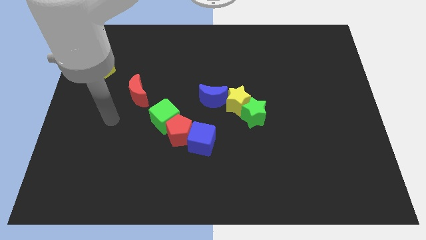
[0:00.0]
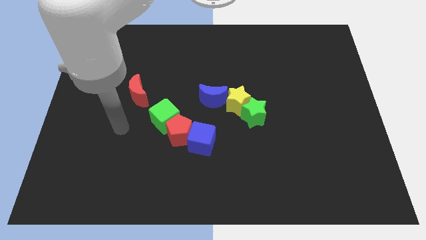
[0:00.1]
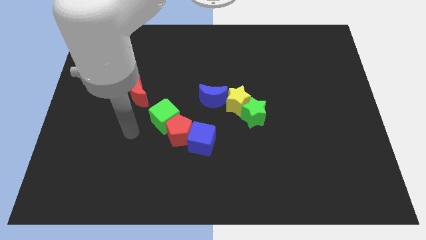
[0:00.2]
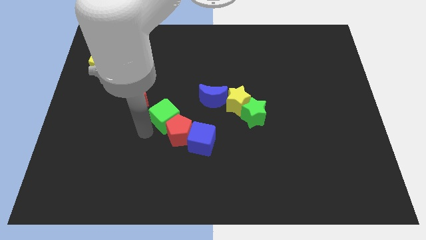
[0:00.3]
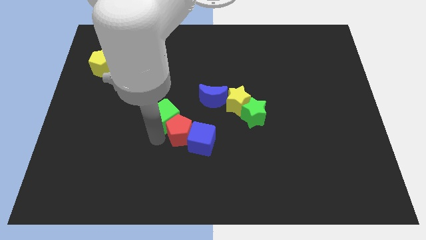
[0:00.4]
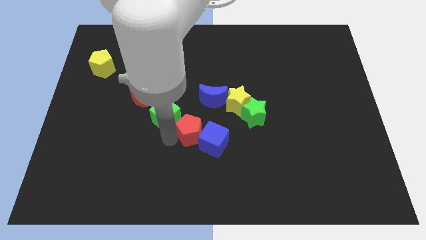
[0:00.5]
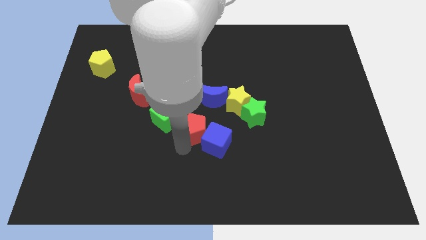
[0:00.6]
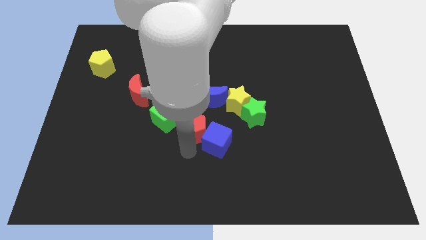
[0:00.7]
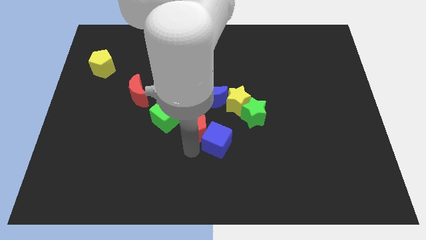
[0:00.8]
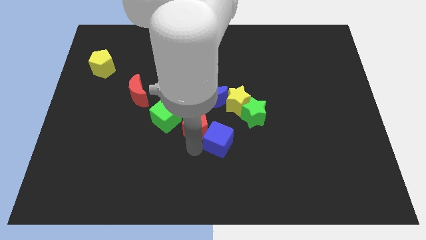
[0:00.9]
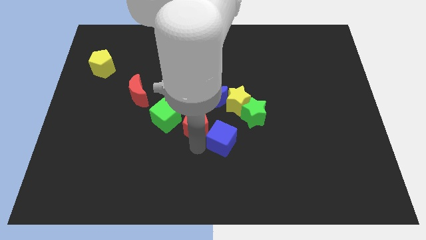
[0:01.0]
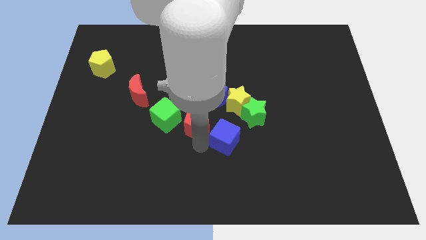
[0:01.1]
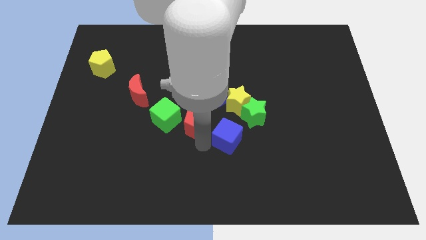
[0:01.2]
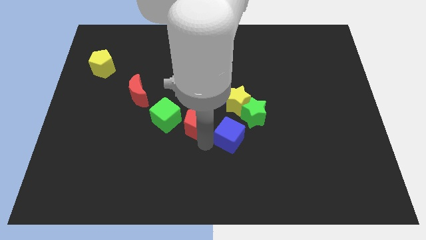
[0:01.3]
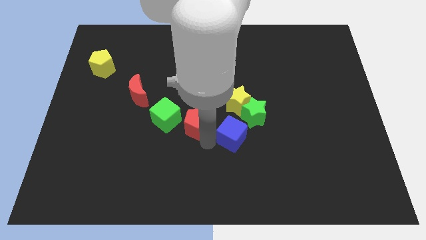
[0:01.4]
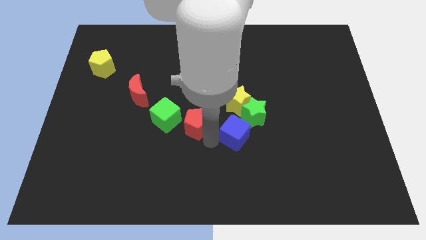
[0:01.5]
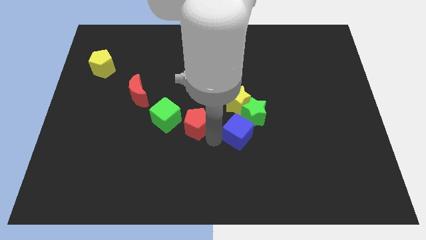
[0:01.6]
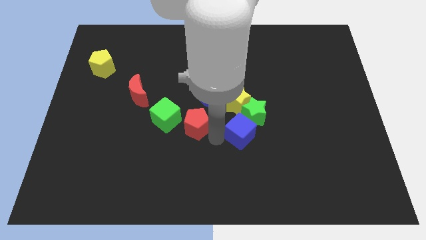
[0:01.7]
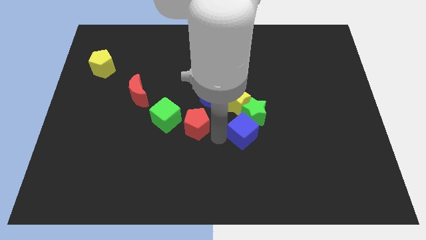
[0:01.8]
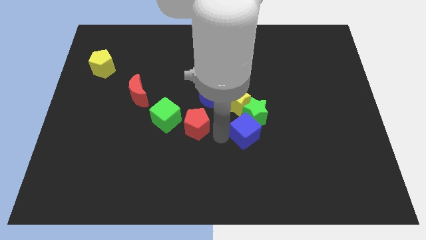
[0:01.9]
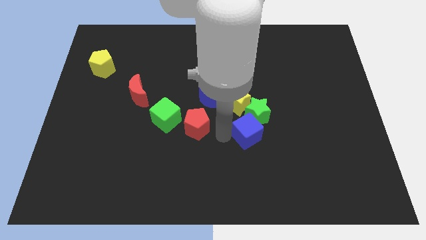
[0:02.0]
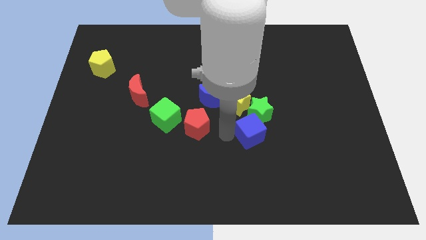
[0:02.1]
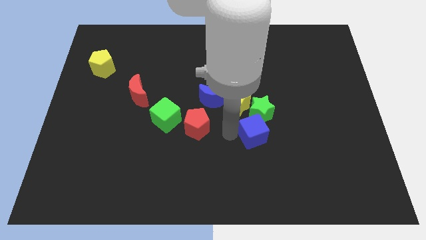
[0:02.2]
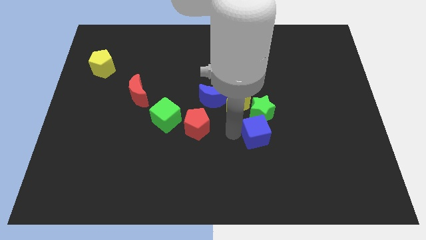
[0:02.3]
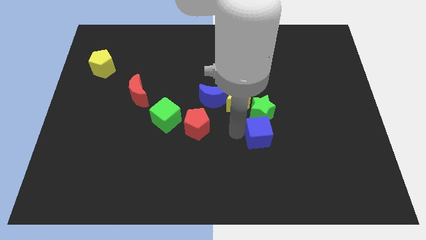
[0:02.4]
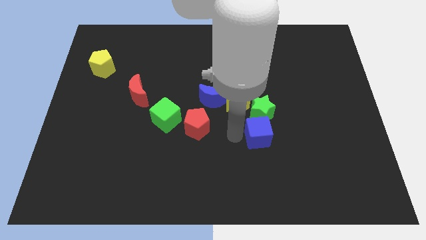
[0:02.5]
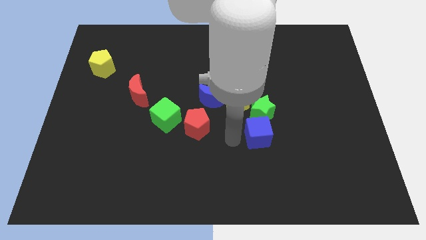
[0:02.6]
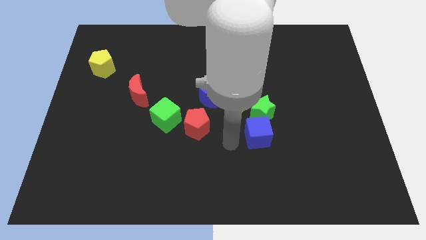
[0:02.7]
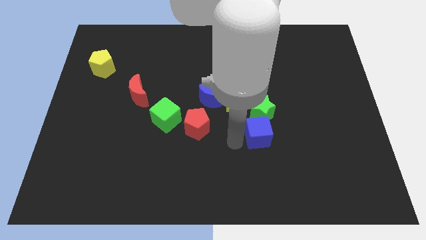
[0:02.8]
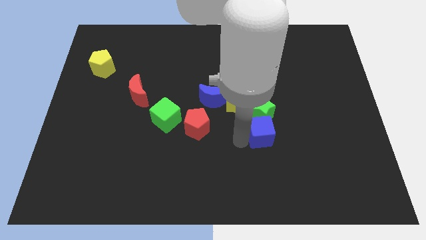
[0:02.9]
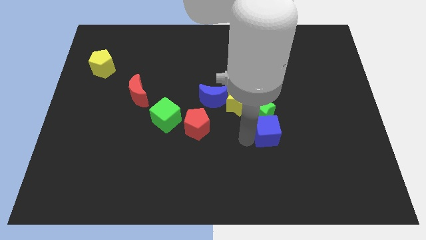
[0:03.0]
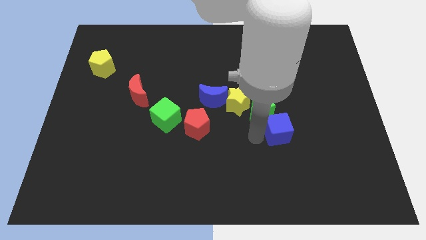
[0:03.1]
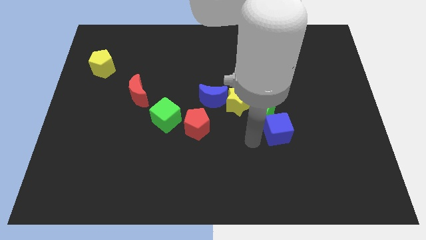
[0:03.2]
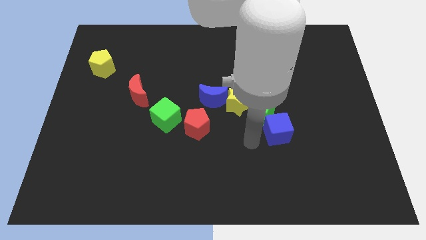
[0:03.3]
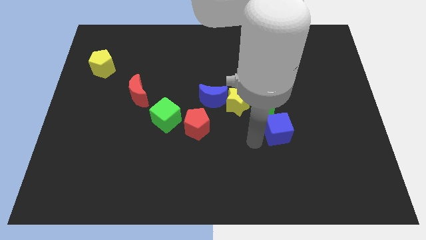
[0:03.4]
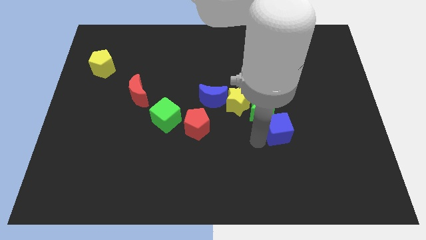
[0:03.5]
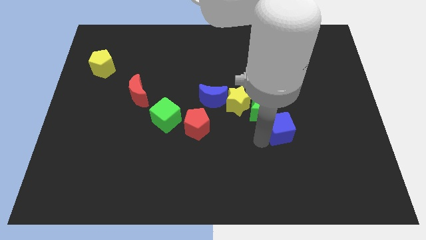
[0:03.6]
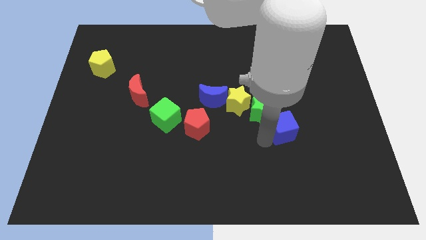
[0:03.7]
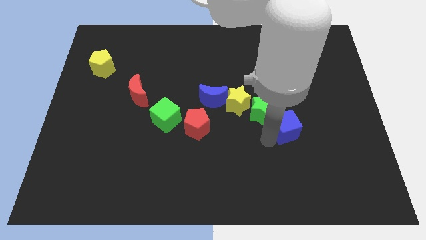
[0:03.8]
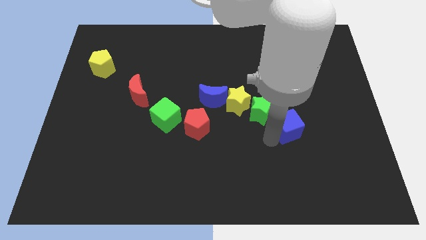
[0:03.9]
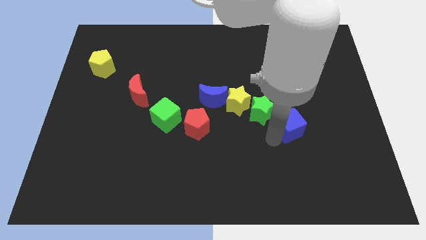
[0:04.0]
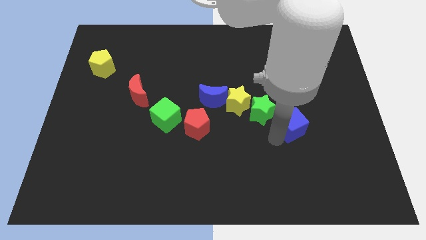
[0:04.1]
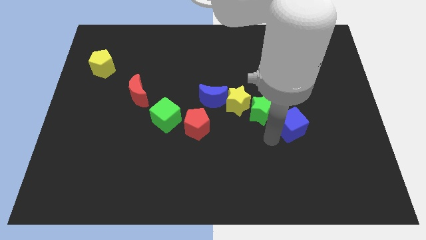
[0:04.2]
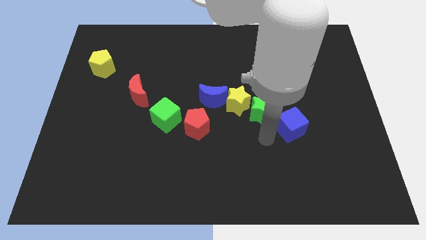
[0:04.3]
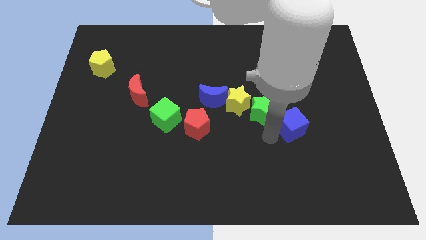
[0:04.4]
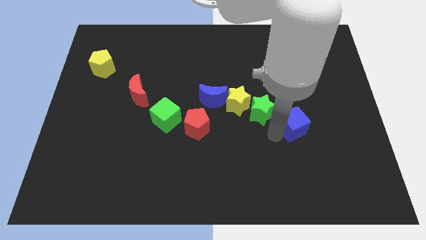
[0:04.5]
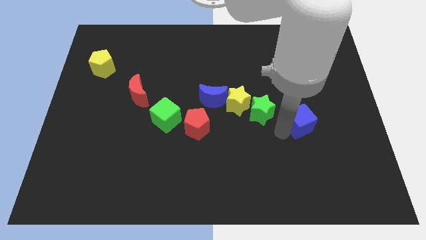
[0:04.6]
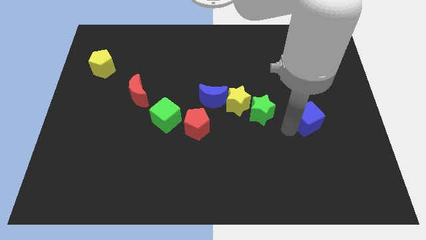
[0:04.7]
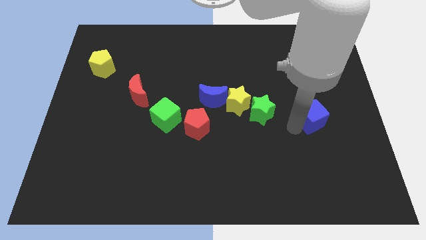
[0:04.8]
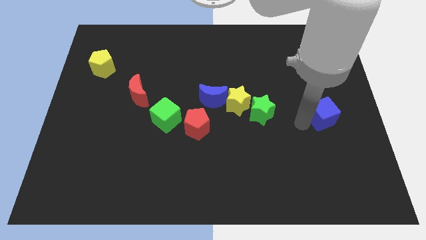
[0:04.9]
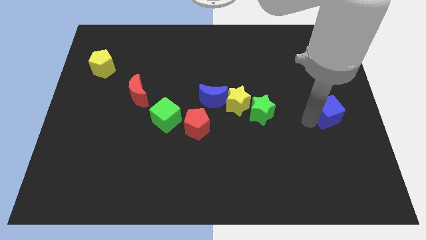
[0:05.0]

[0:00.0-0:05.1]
slide the blue cube to the right side of the board

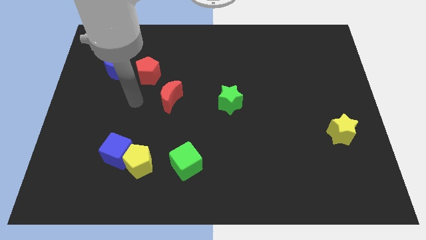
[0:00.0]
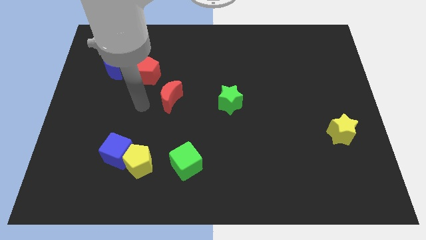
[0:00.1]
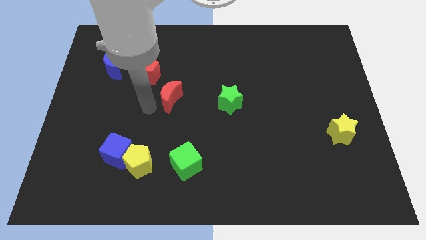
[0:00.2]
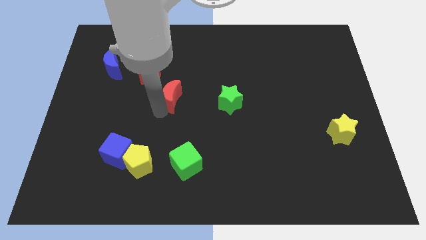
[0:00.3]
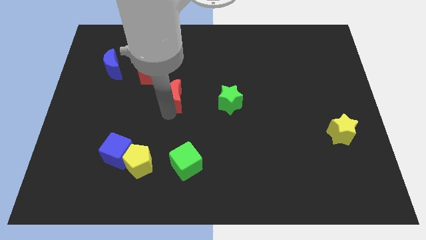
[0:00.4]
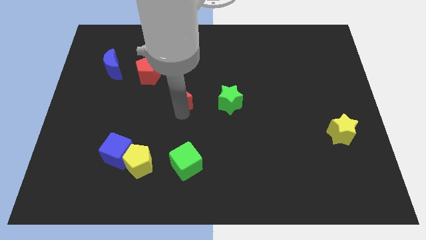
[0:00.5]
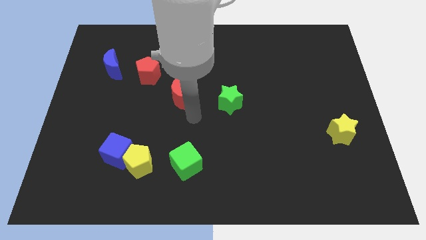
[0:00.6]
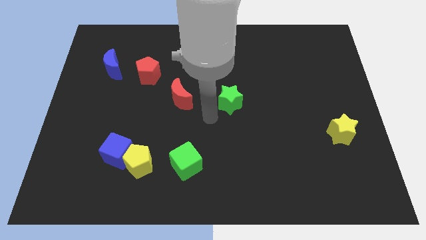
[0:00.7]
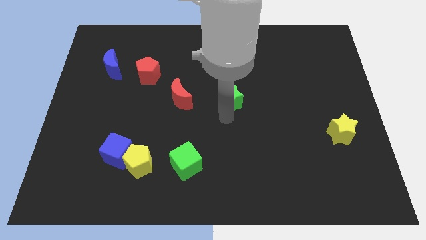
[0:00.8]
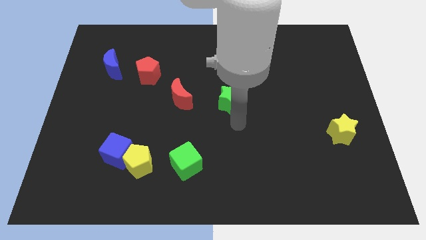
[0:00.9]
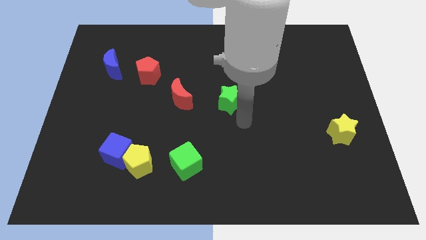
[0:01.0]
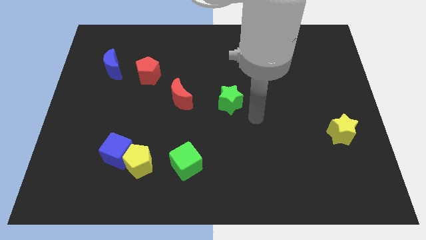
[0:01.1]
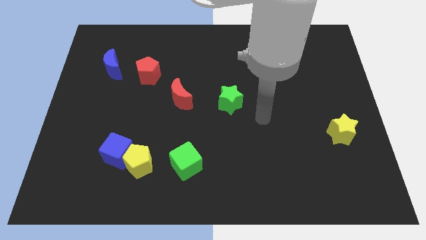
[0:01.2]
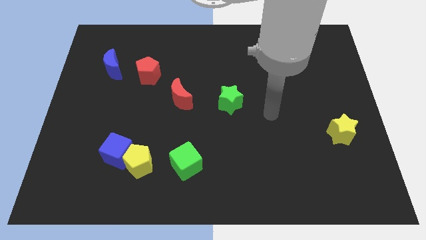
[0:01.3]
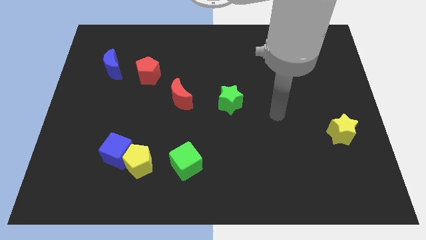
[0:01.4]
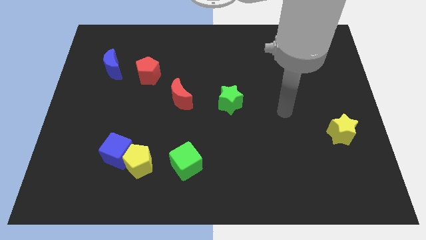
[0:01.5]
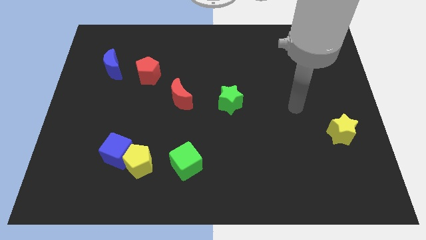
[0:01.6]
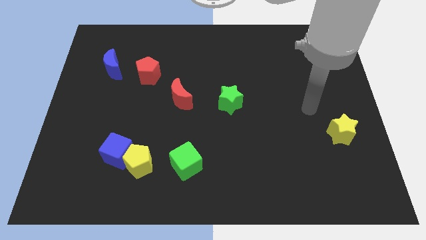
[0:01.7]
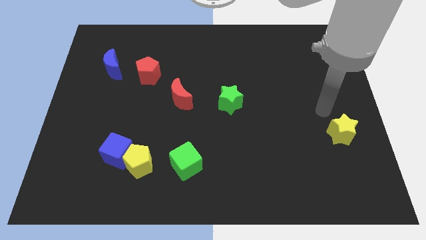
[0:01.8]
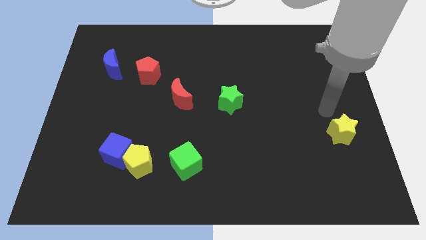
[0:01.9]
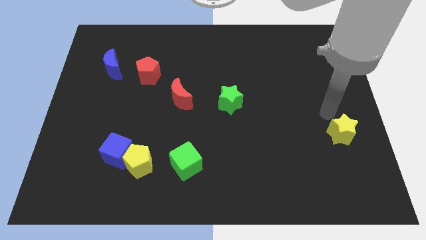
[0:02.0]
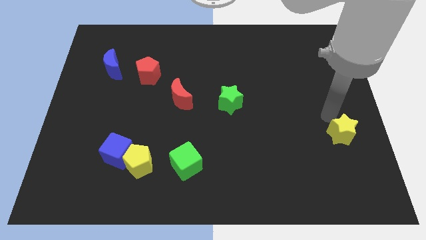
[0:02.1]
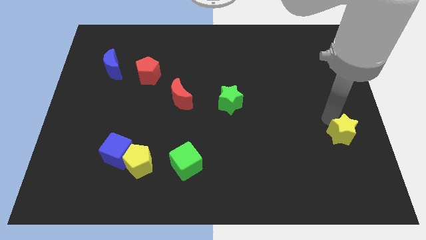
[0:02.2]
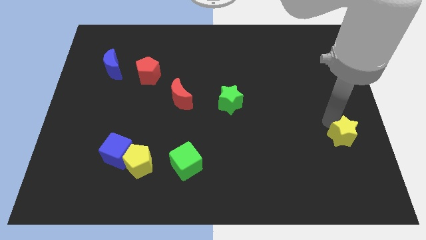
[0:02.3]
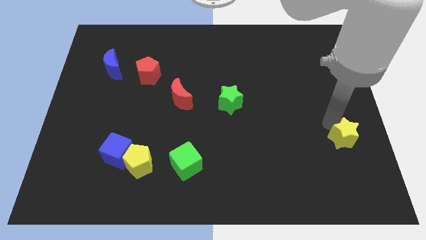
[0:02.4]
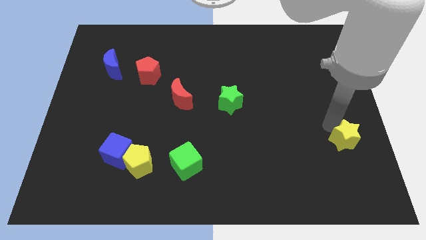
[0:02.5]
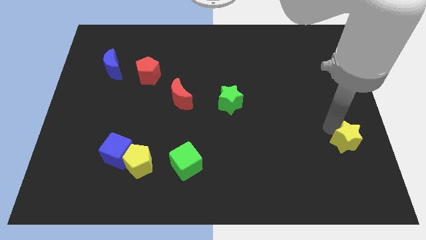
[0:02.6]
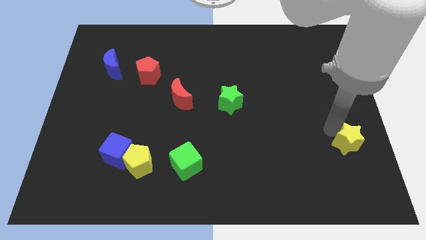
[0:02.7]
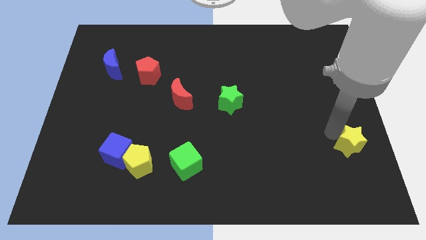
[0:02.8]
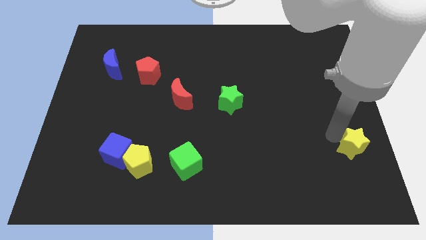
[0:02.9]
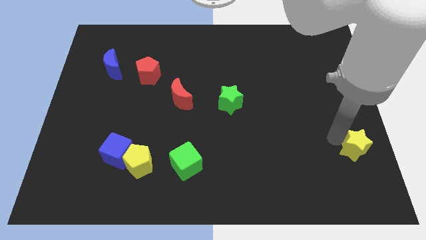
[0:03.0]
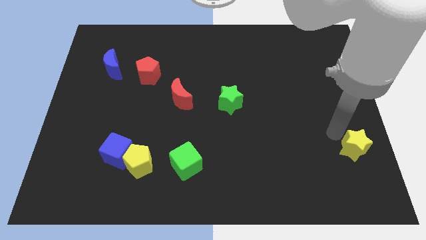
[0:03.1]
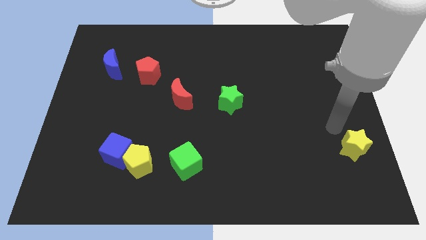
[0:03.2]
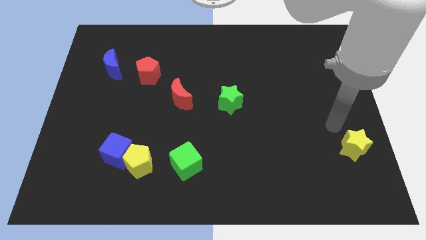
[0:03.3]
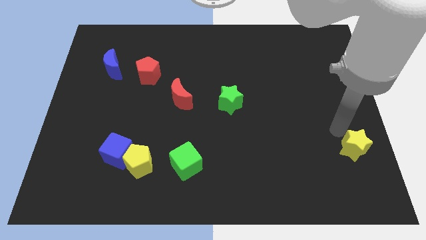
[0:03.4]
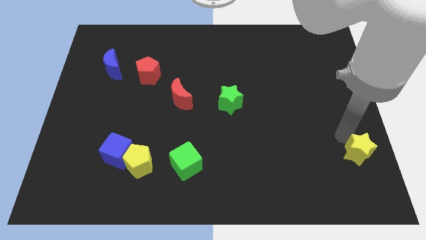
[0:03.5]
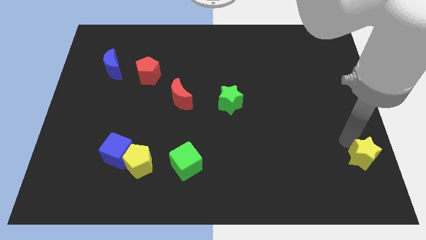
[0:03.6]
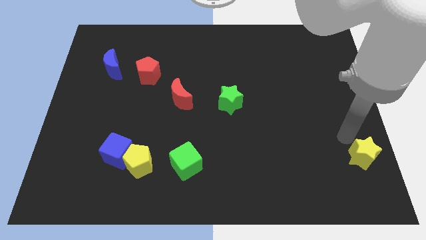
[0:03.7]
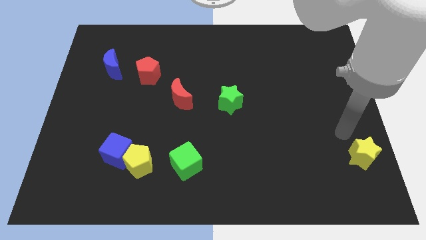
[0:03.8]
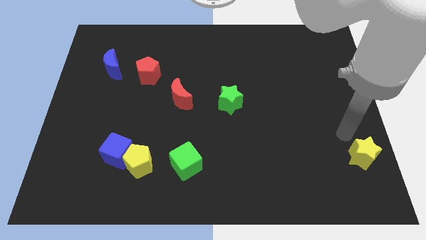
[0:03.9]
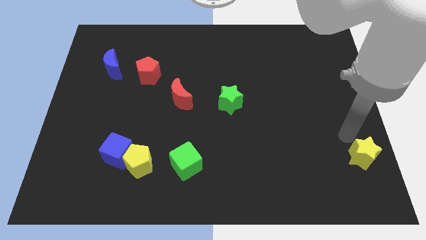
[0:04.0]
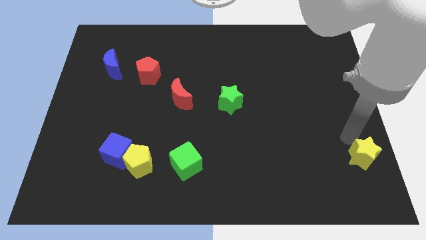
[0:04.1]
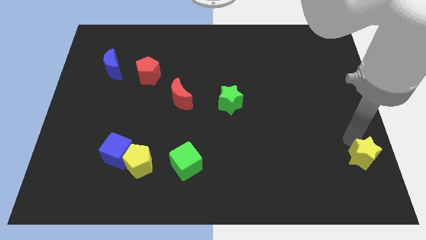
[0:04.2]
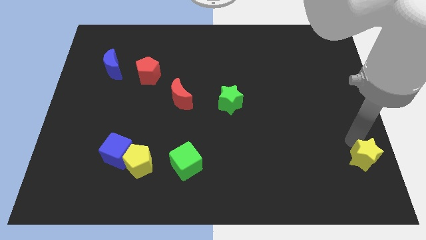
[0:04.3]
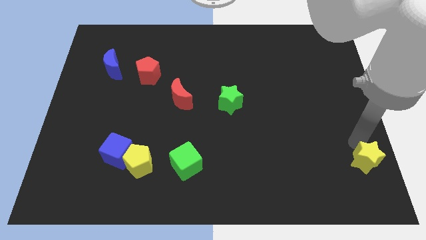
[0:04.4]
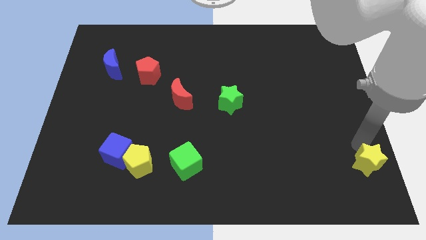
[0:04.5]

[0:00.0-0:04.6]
slide the yellow star to the bottom right of the board
